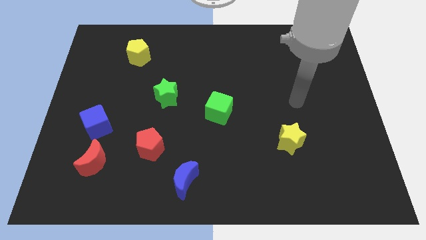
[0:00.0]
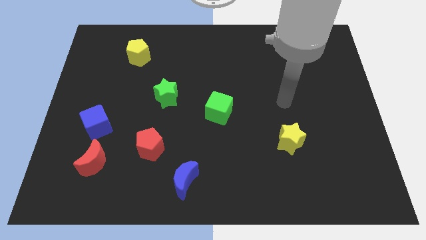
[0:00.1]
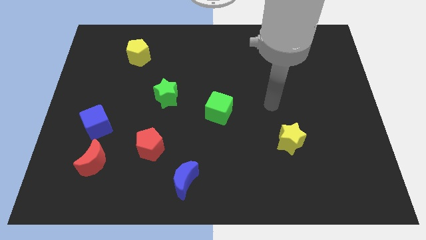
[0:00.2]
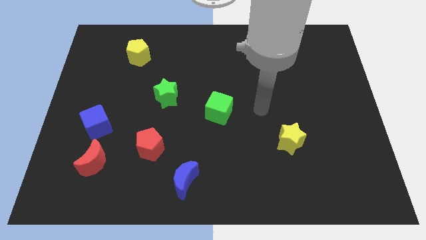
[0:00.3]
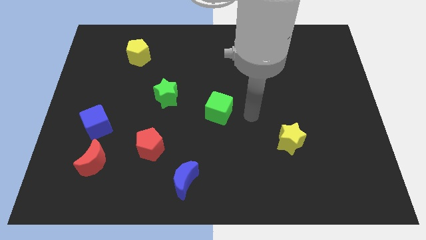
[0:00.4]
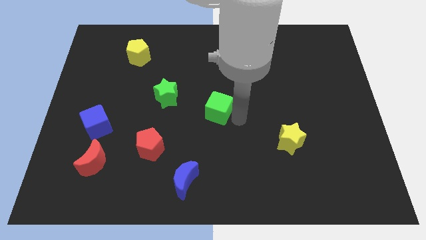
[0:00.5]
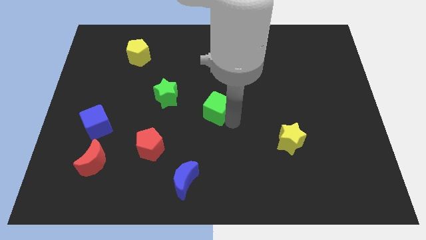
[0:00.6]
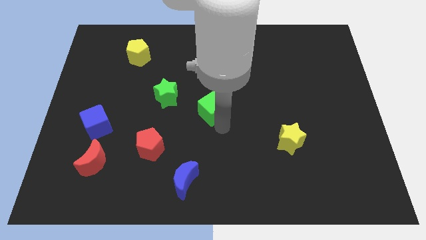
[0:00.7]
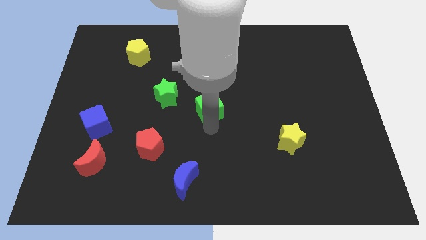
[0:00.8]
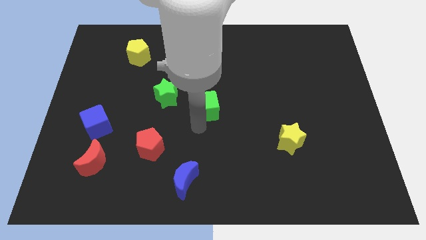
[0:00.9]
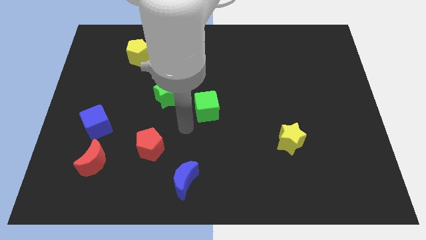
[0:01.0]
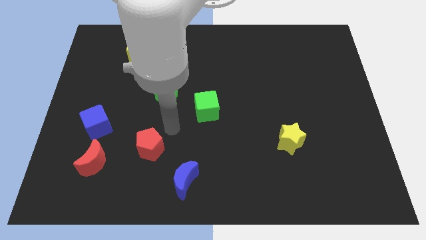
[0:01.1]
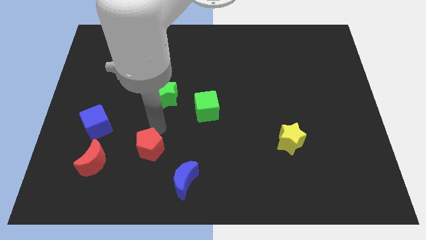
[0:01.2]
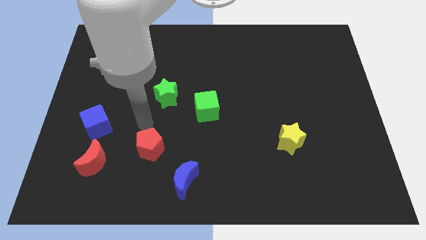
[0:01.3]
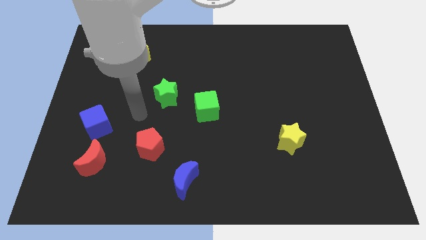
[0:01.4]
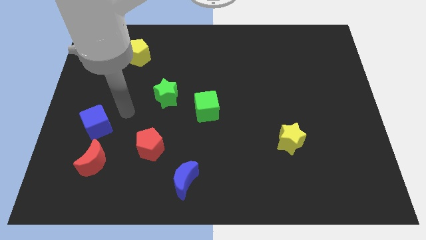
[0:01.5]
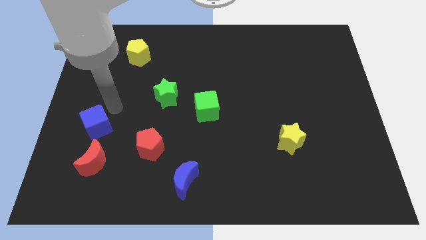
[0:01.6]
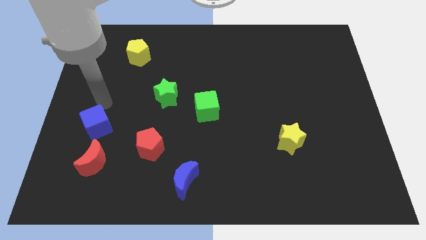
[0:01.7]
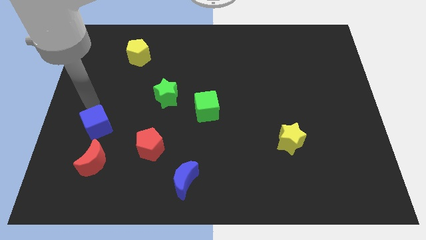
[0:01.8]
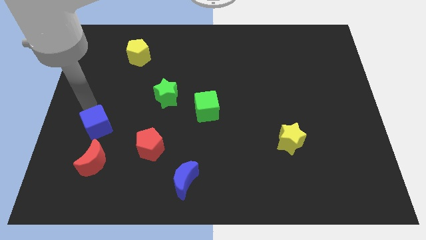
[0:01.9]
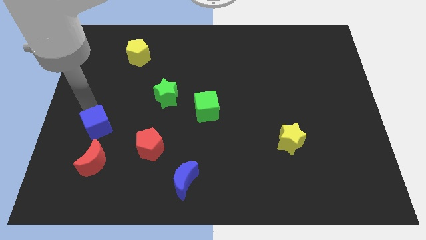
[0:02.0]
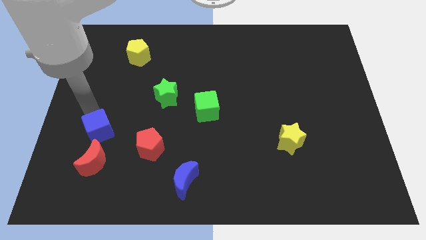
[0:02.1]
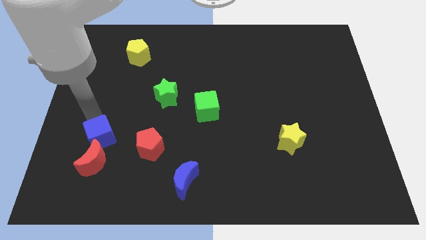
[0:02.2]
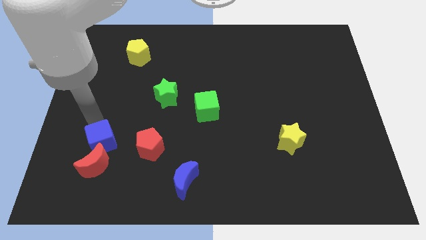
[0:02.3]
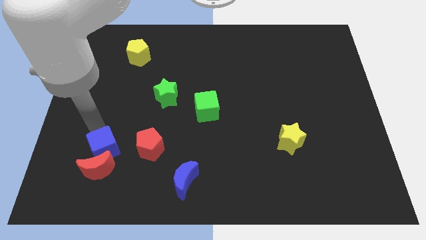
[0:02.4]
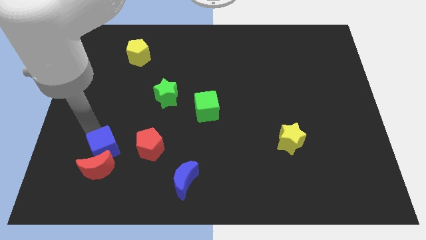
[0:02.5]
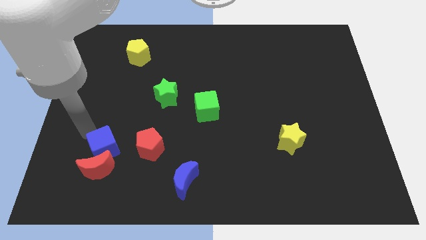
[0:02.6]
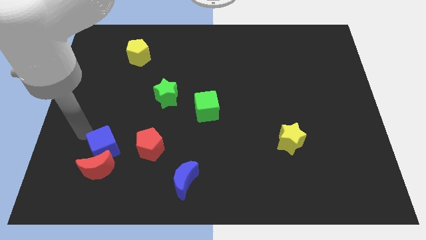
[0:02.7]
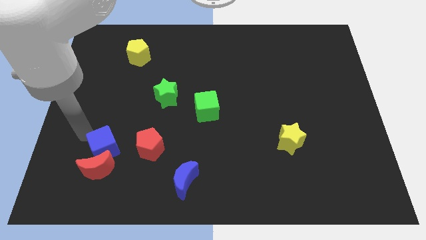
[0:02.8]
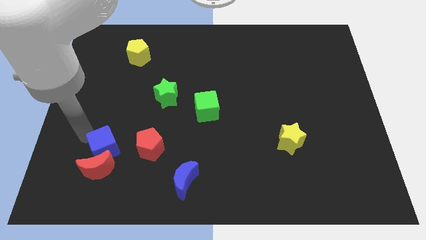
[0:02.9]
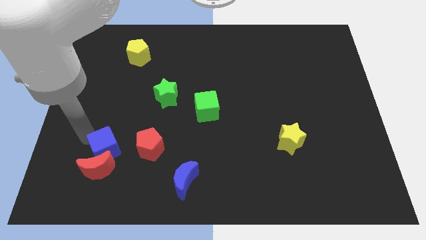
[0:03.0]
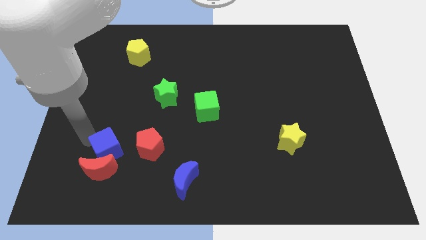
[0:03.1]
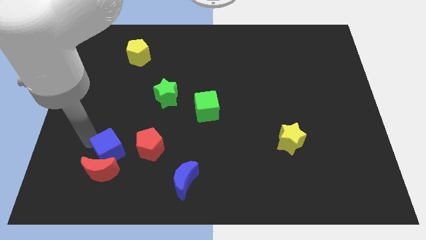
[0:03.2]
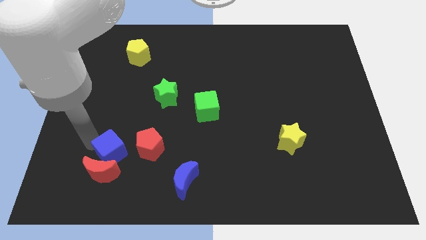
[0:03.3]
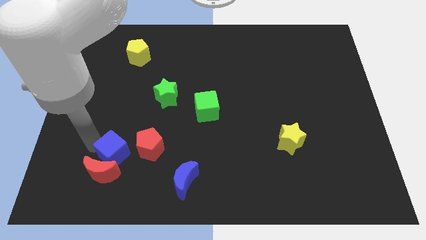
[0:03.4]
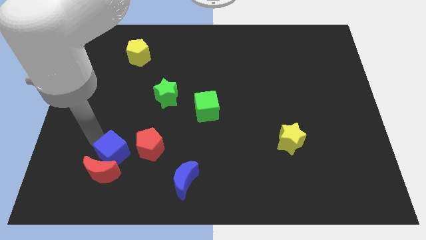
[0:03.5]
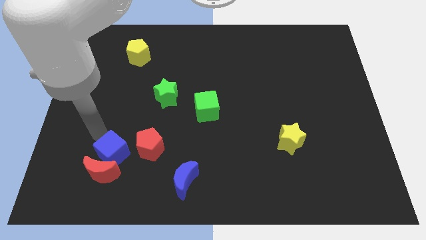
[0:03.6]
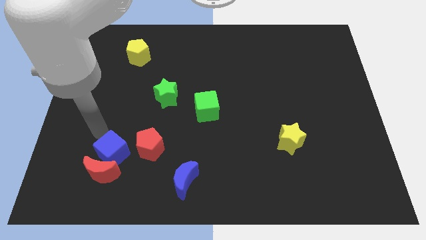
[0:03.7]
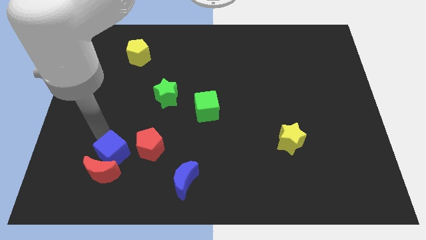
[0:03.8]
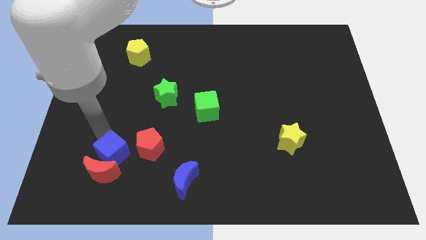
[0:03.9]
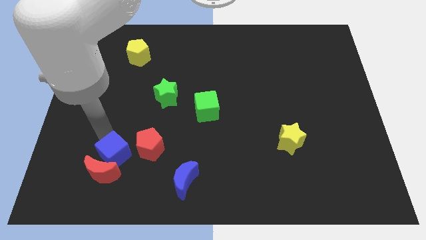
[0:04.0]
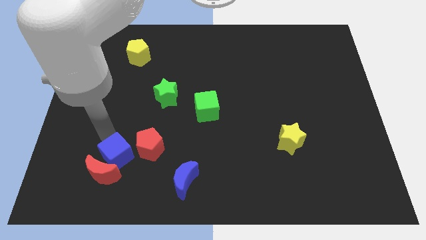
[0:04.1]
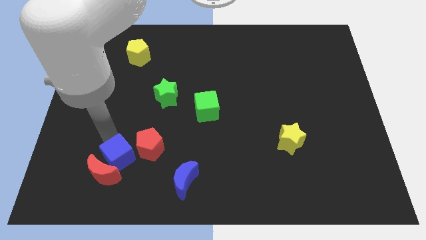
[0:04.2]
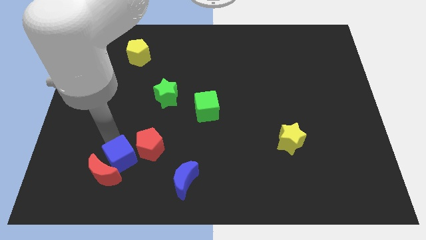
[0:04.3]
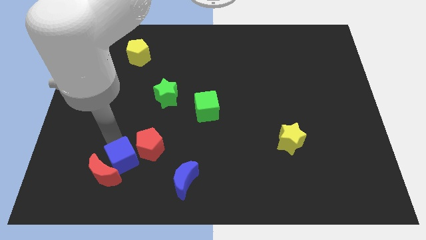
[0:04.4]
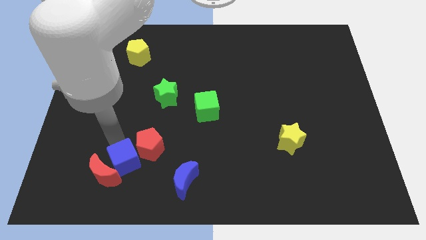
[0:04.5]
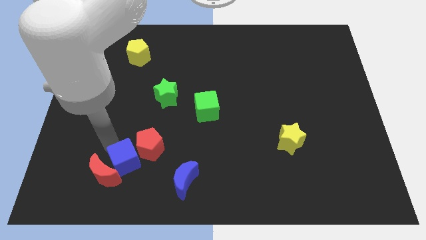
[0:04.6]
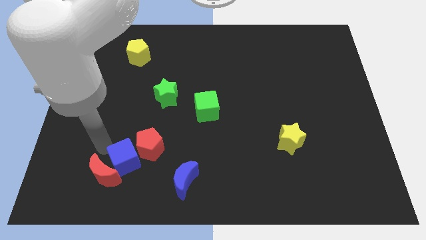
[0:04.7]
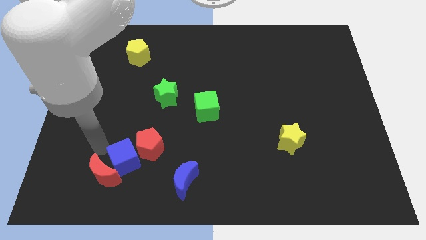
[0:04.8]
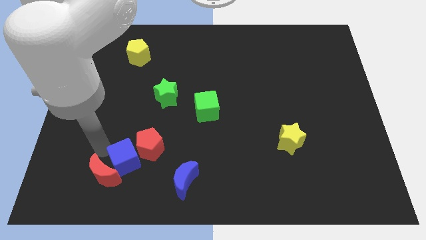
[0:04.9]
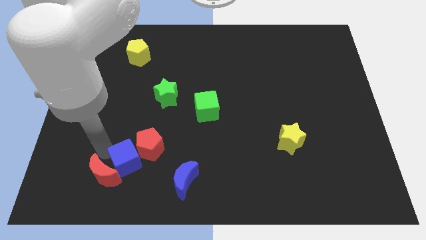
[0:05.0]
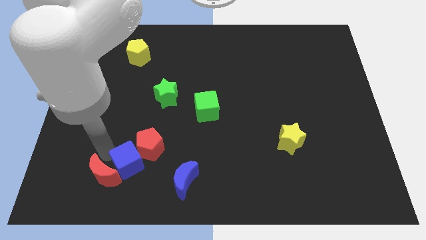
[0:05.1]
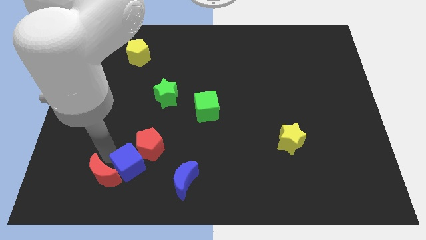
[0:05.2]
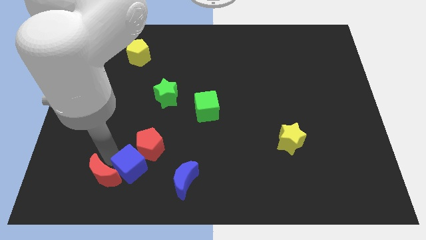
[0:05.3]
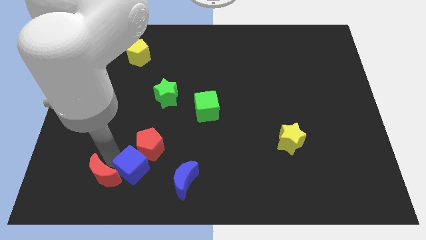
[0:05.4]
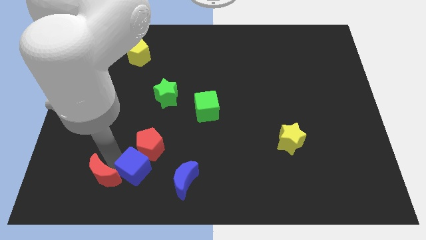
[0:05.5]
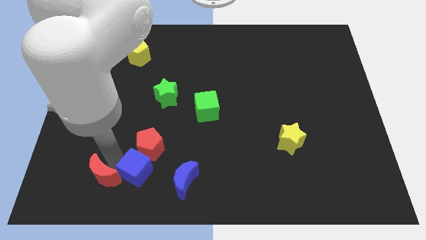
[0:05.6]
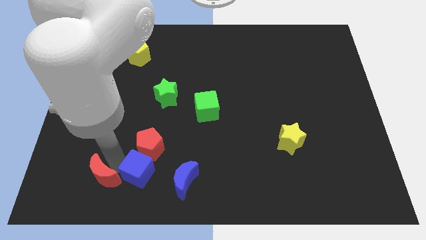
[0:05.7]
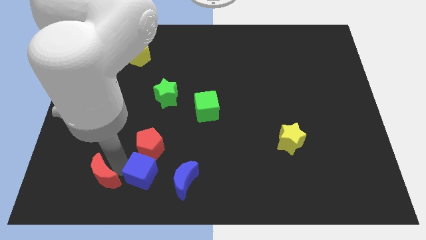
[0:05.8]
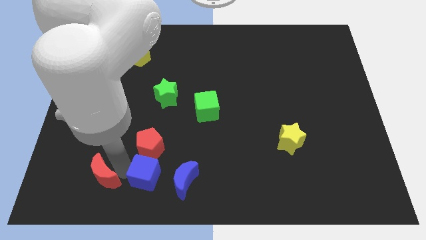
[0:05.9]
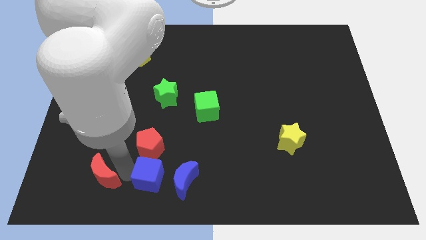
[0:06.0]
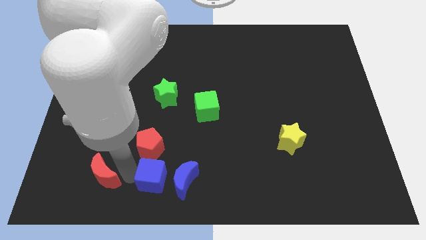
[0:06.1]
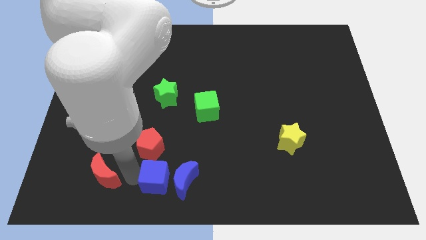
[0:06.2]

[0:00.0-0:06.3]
move the blue cube towards the blue moon

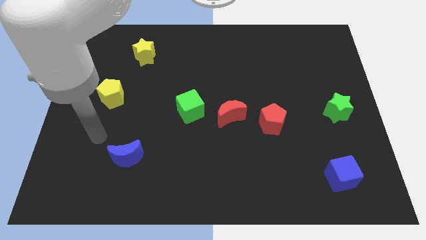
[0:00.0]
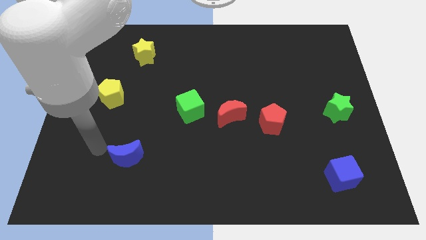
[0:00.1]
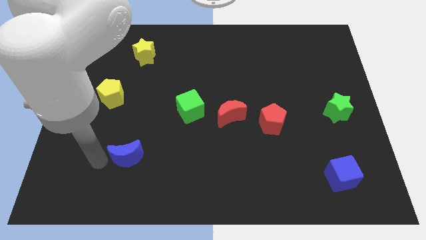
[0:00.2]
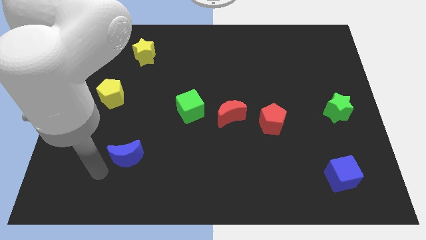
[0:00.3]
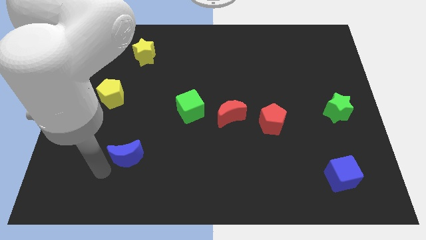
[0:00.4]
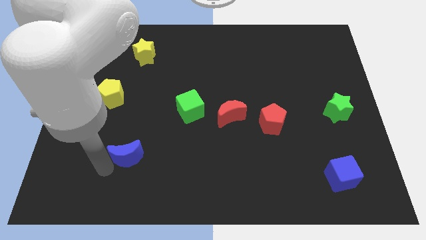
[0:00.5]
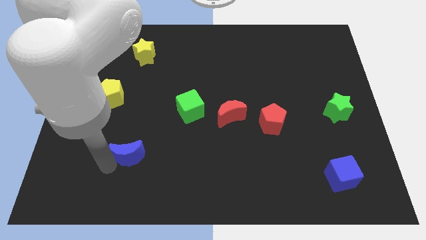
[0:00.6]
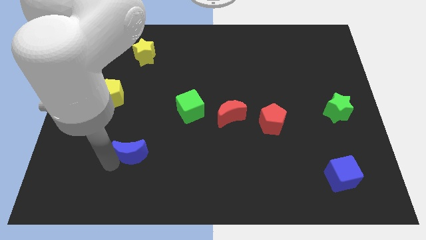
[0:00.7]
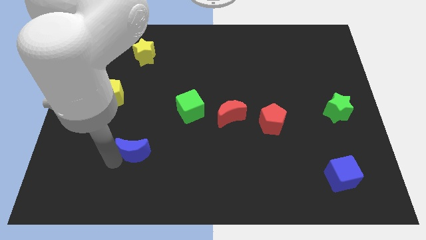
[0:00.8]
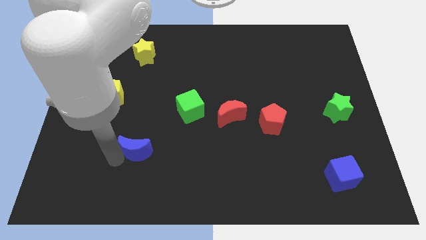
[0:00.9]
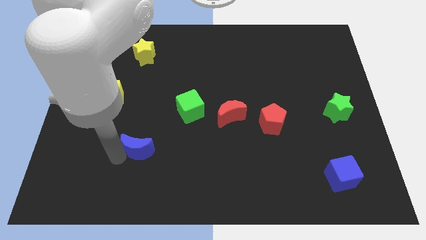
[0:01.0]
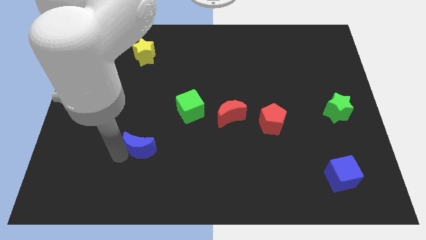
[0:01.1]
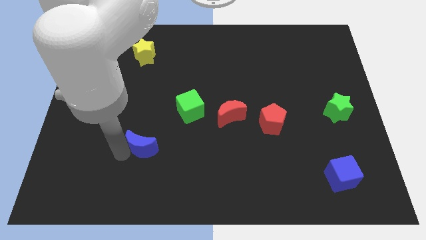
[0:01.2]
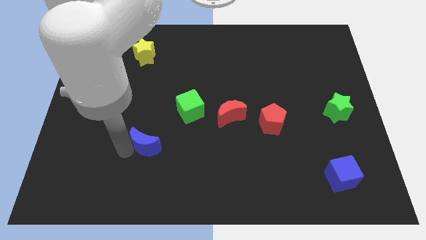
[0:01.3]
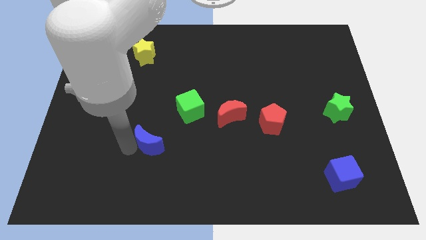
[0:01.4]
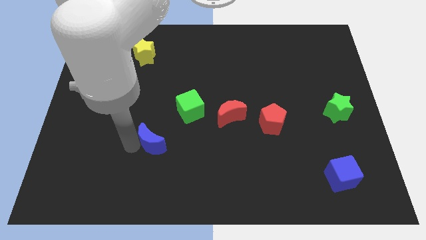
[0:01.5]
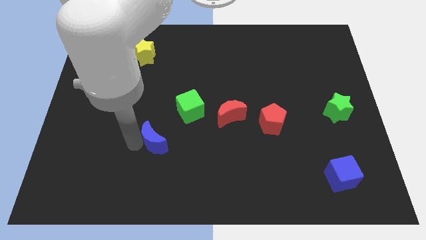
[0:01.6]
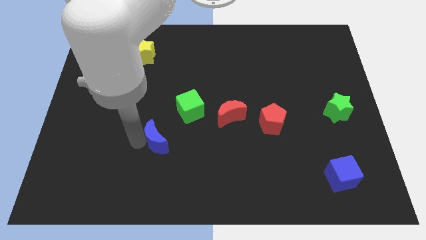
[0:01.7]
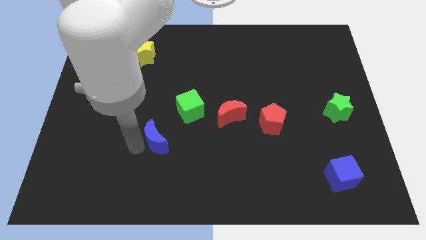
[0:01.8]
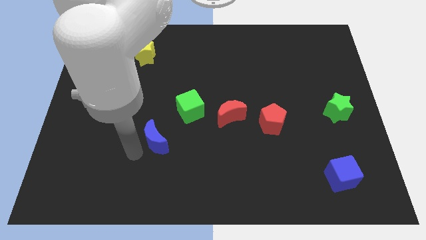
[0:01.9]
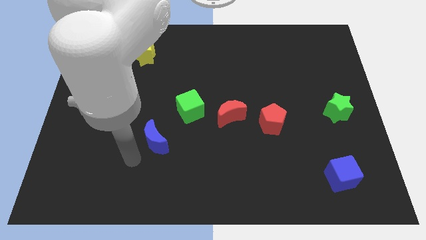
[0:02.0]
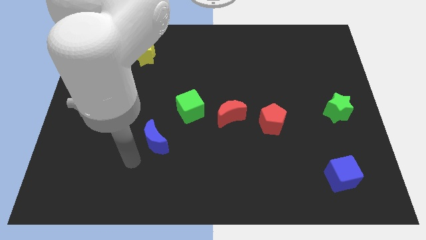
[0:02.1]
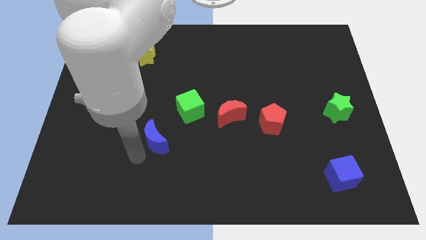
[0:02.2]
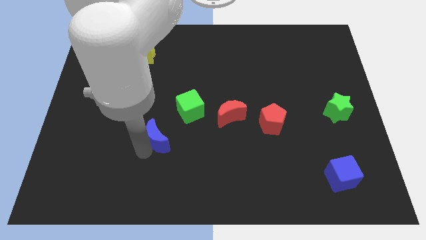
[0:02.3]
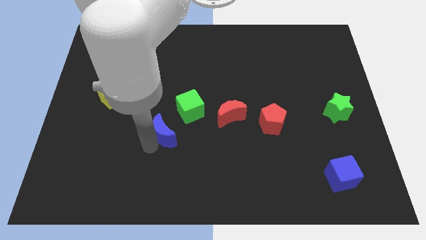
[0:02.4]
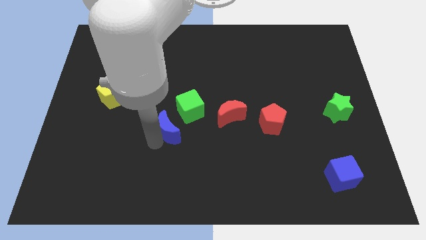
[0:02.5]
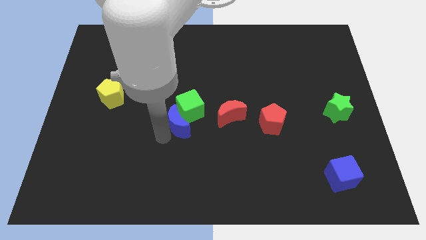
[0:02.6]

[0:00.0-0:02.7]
push the blue moon next to the green cube
